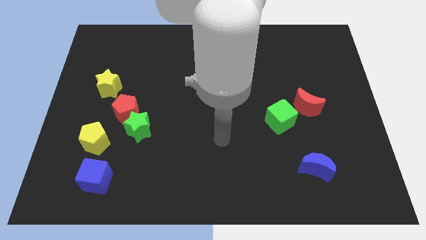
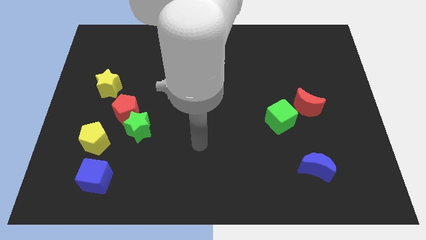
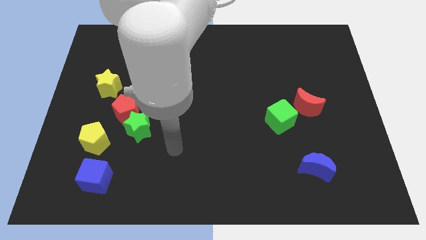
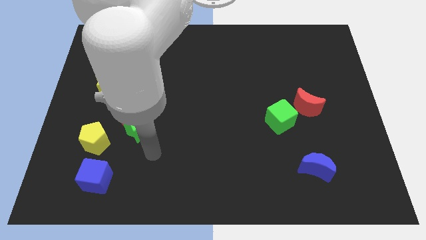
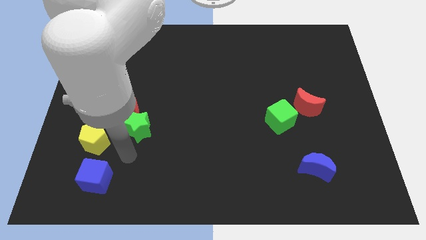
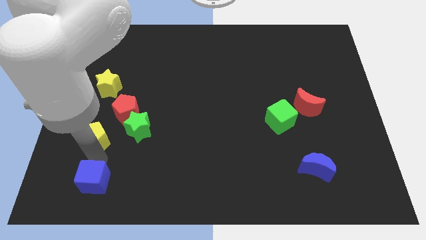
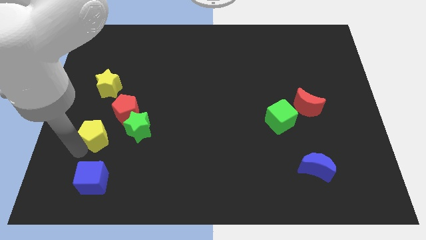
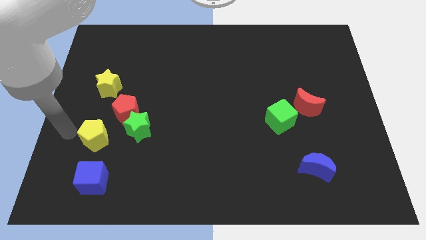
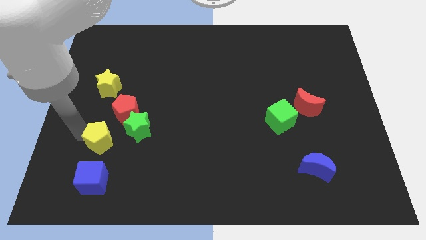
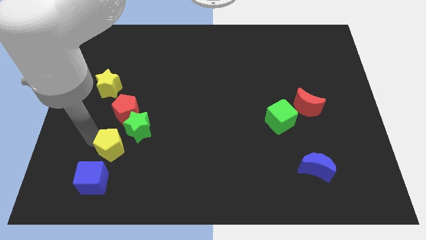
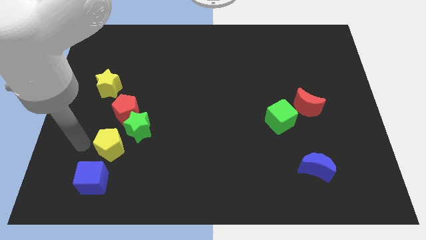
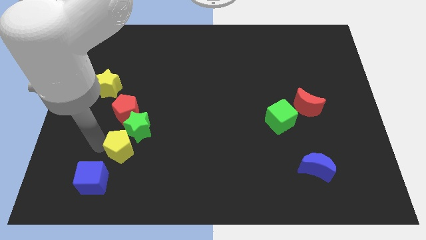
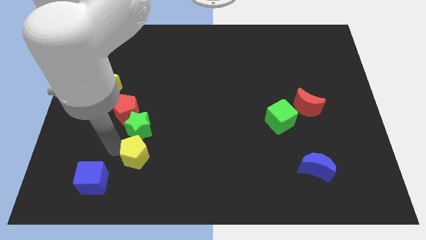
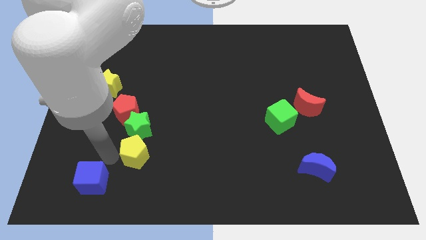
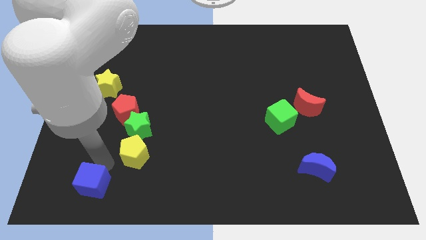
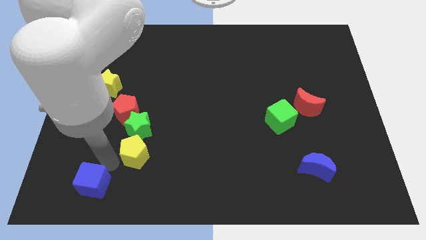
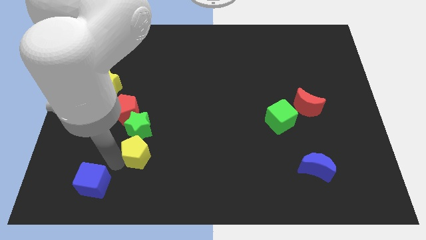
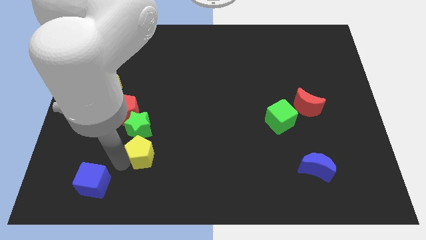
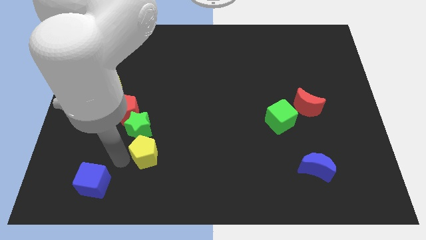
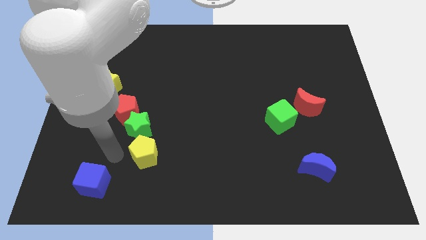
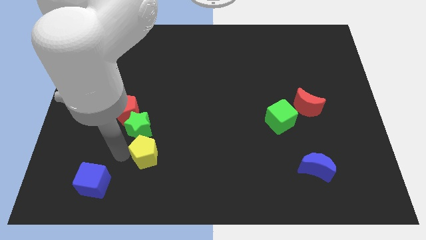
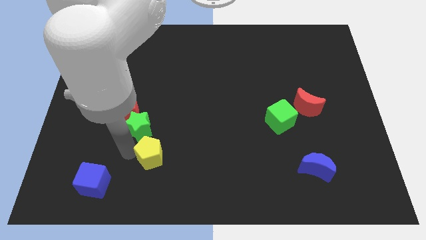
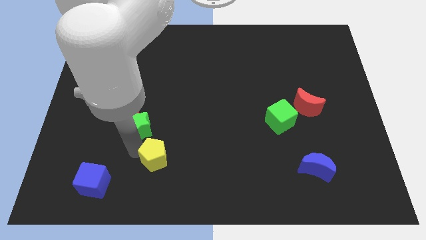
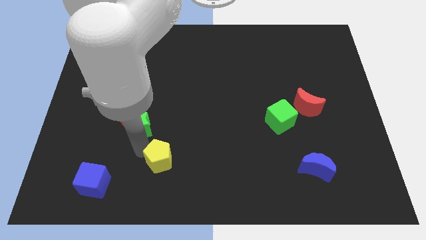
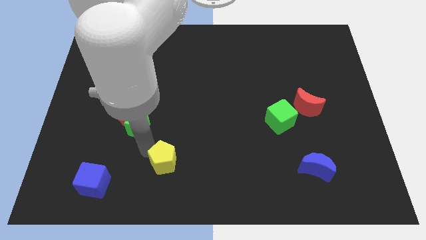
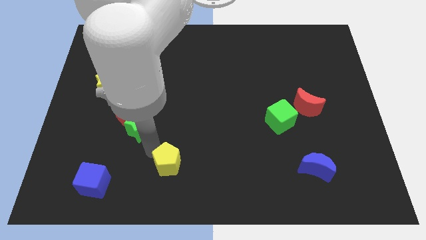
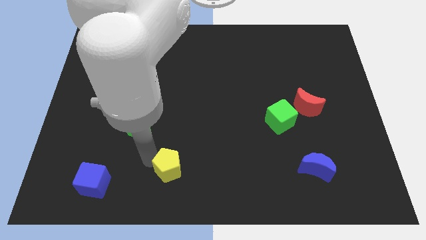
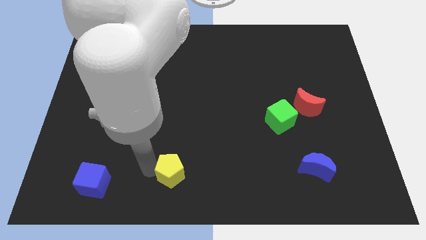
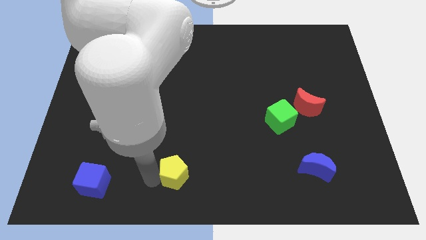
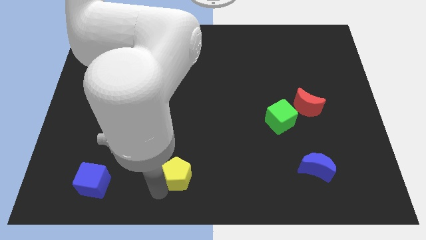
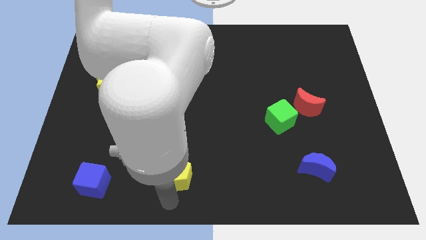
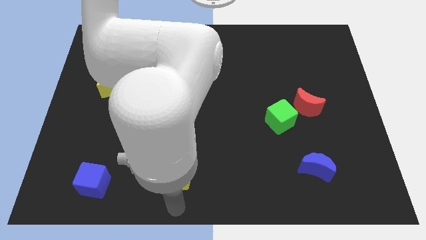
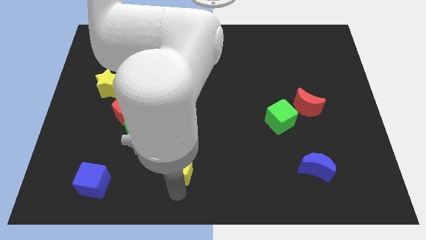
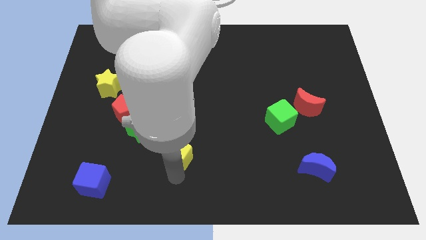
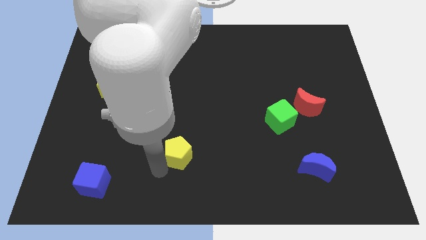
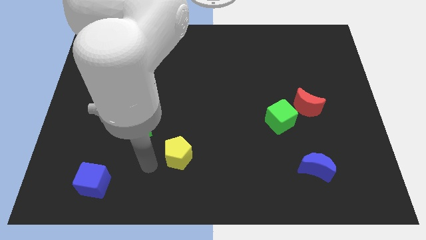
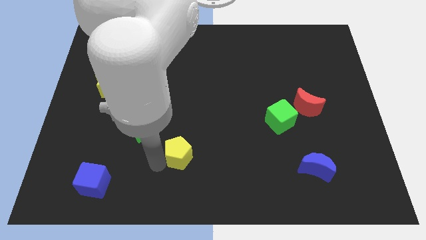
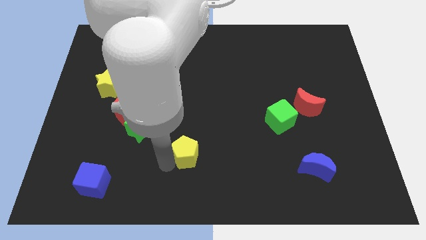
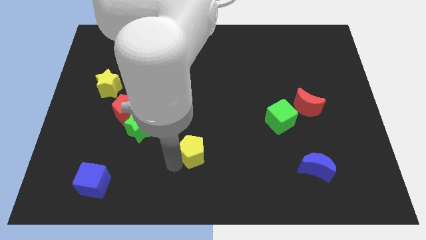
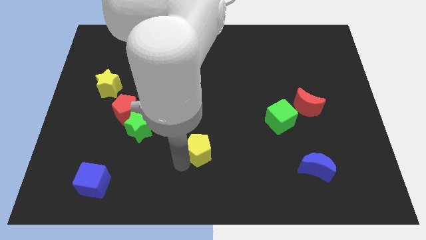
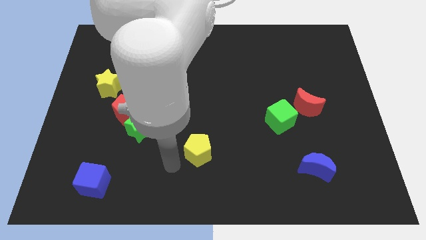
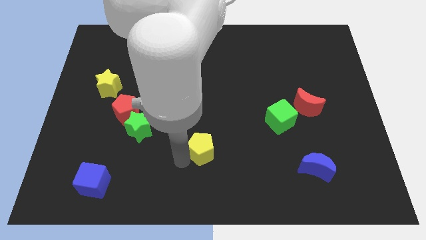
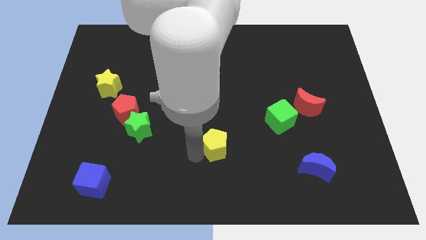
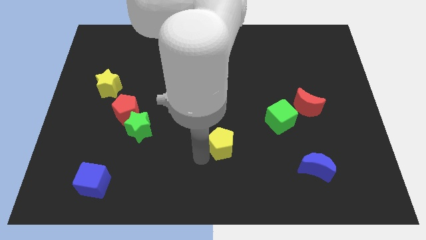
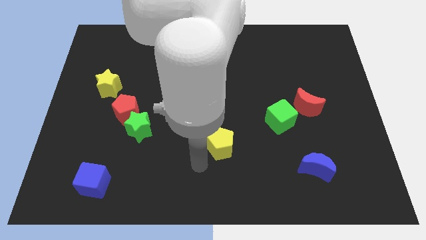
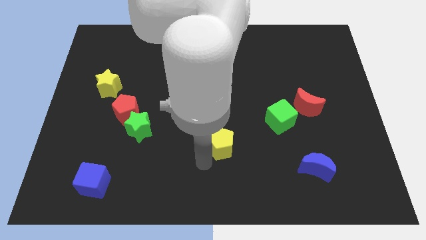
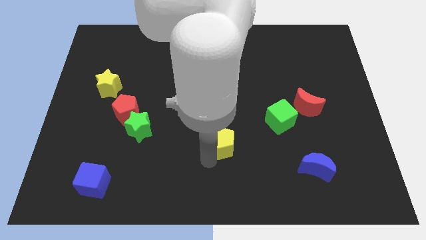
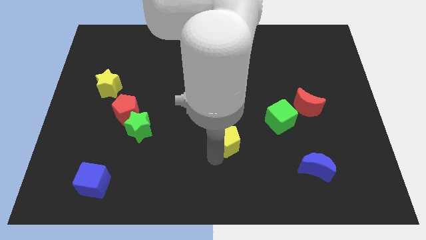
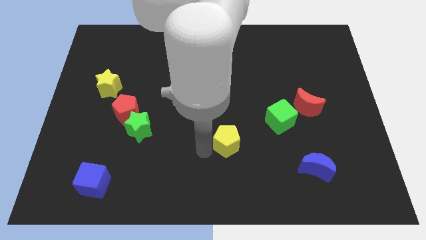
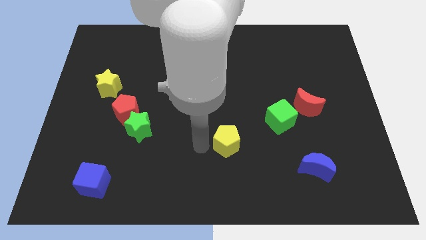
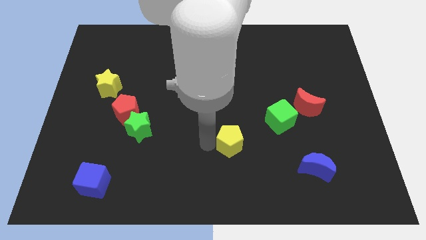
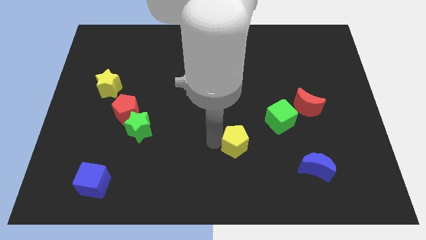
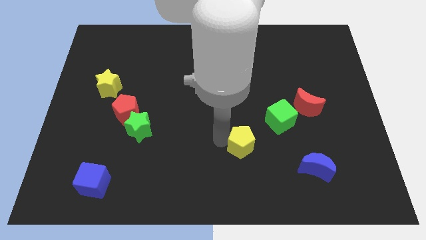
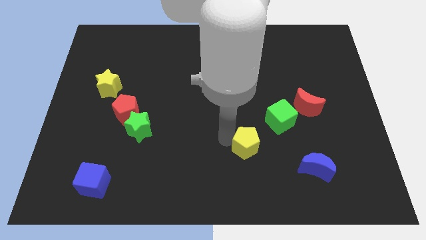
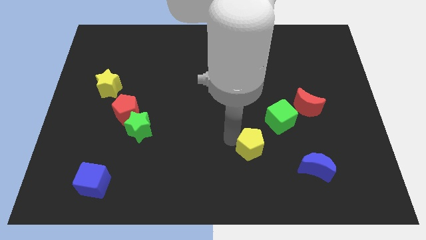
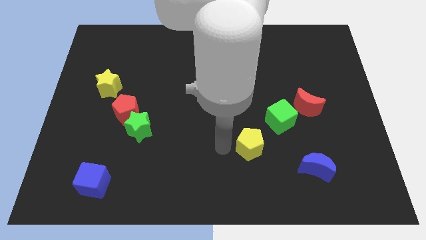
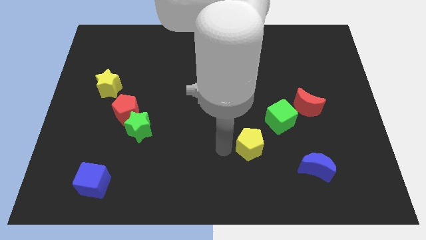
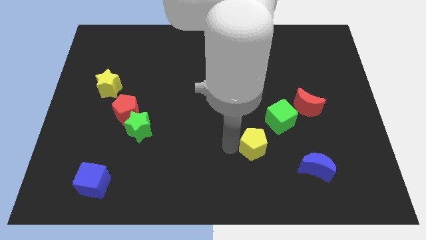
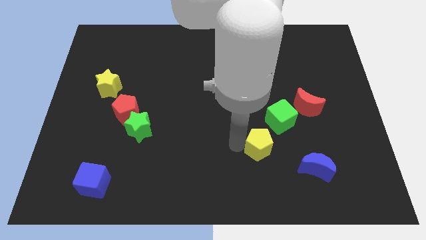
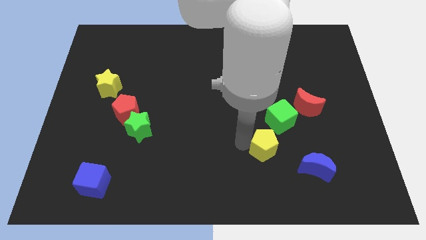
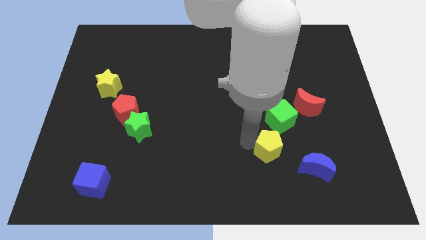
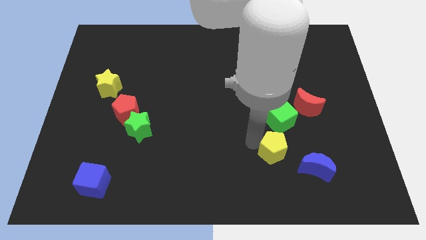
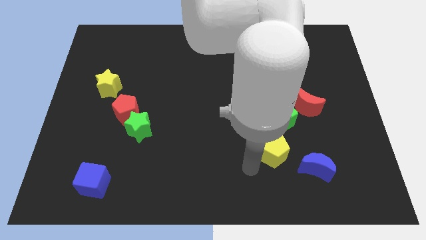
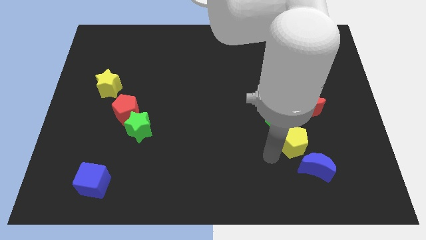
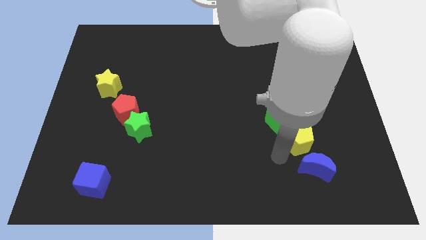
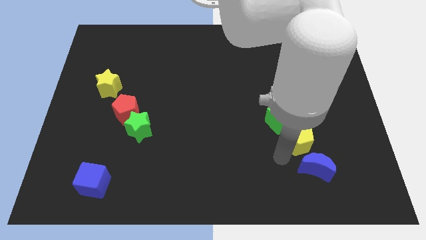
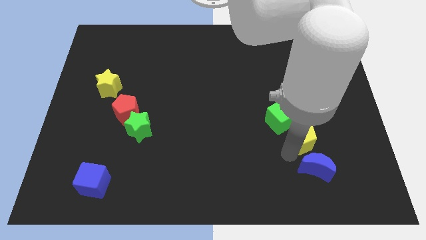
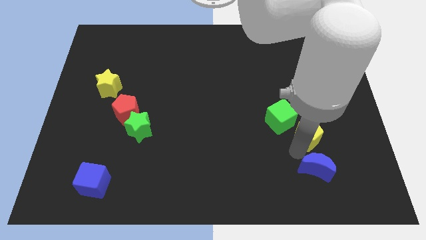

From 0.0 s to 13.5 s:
slide the yellow pentagon just right of the green cube
